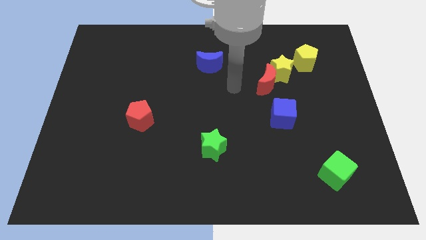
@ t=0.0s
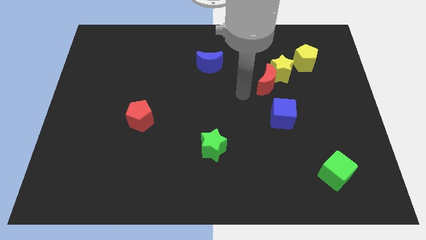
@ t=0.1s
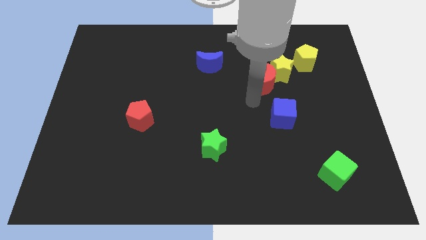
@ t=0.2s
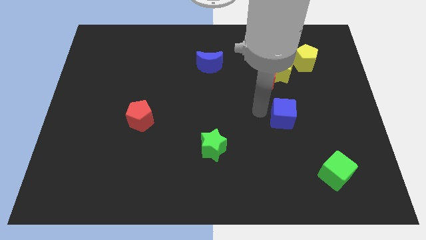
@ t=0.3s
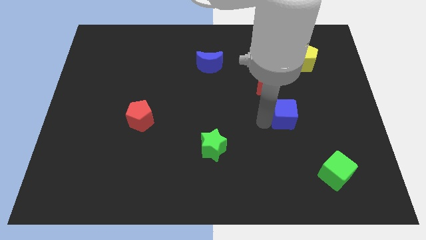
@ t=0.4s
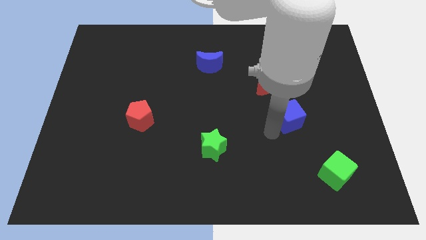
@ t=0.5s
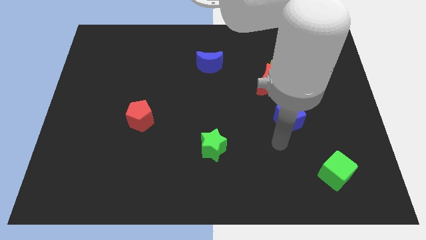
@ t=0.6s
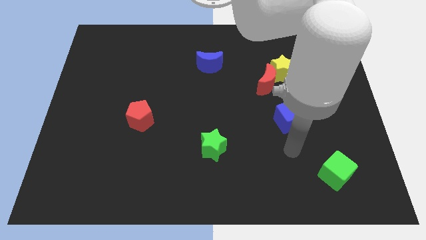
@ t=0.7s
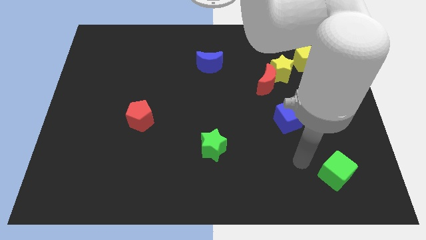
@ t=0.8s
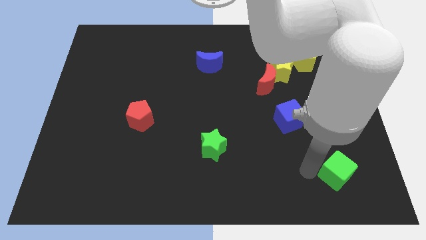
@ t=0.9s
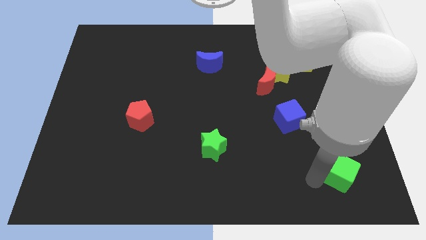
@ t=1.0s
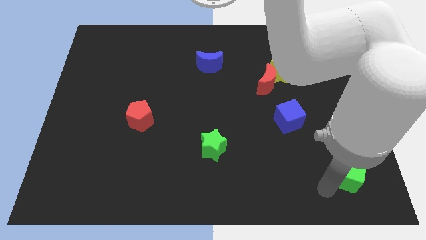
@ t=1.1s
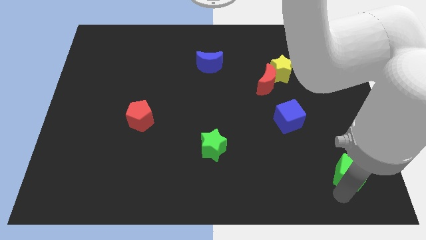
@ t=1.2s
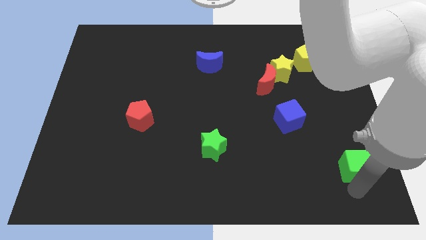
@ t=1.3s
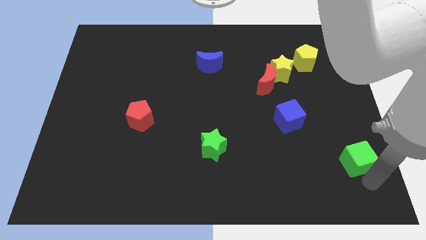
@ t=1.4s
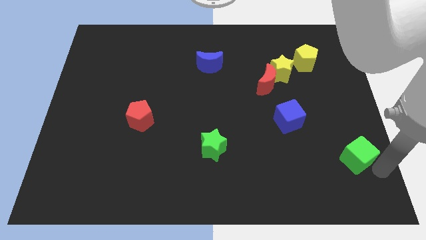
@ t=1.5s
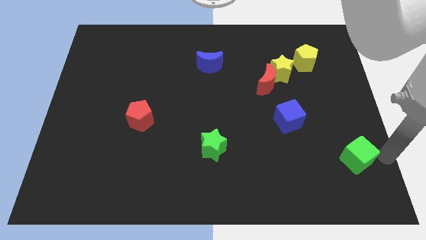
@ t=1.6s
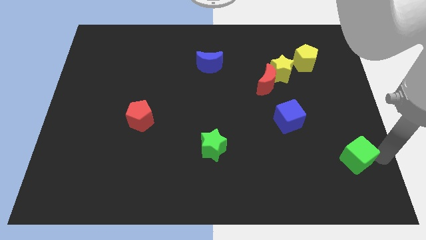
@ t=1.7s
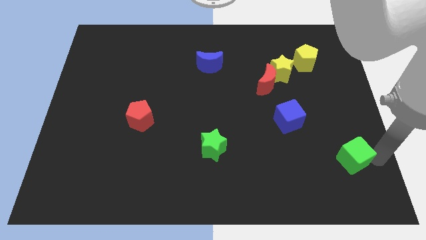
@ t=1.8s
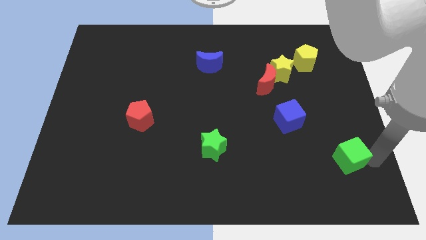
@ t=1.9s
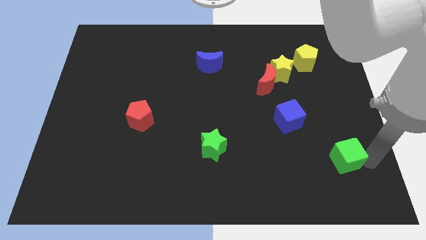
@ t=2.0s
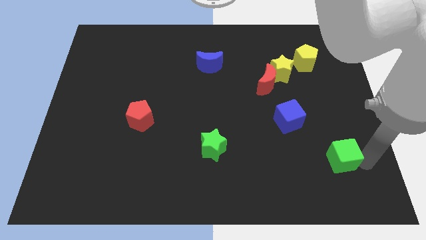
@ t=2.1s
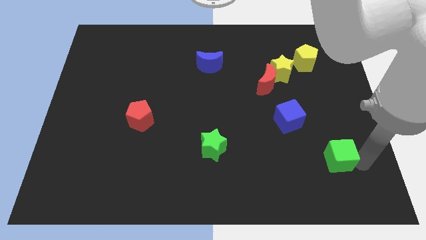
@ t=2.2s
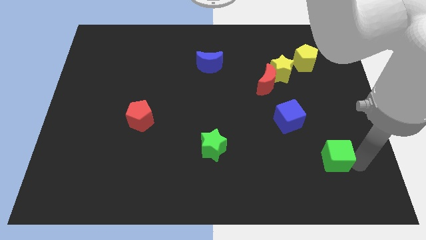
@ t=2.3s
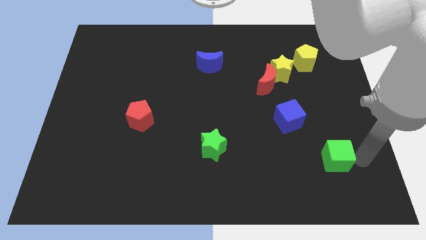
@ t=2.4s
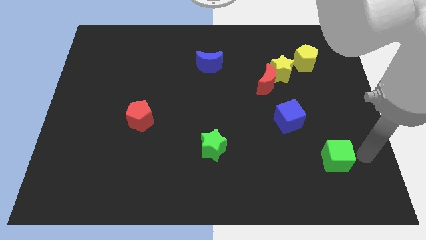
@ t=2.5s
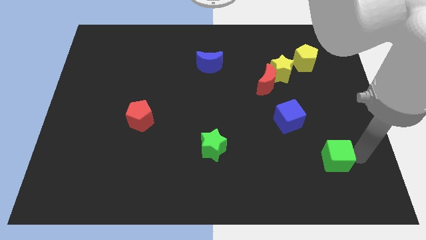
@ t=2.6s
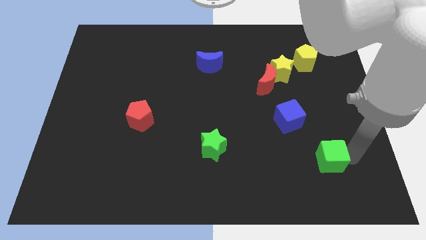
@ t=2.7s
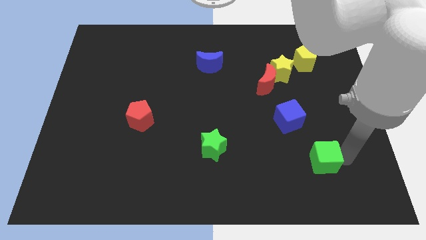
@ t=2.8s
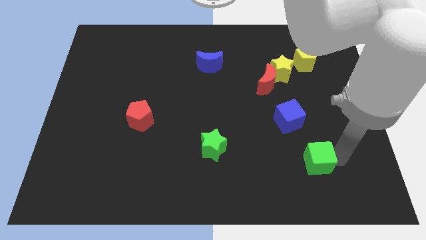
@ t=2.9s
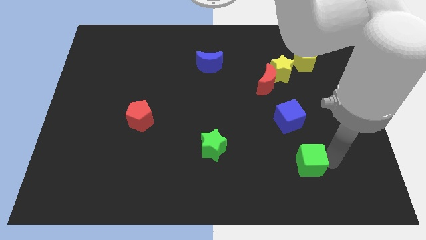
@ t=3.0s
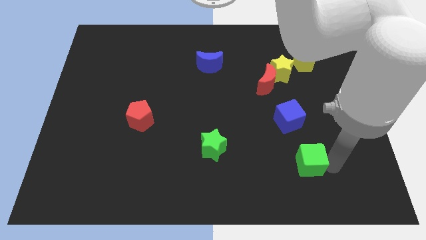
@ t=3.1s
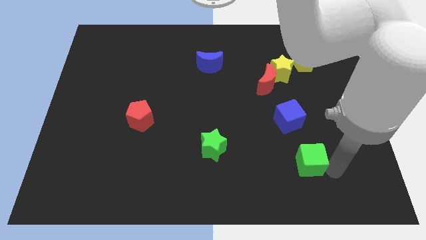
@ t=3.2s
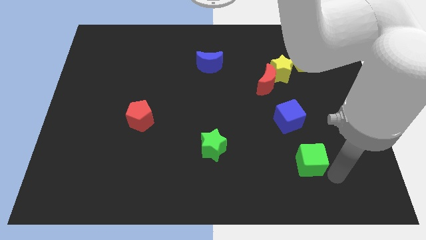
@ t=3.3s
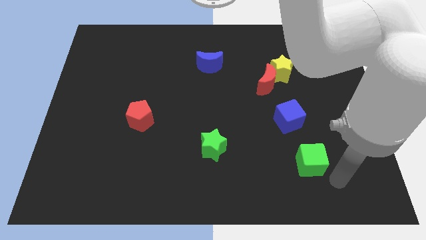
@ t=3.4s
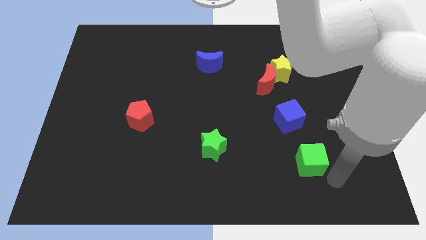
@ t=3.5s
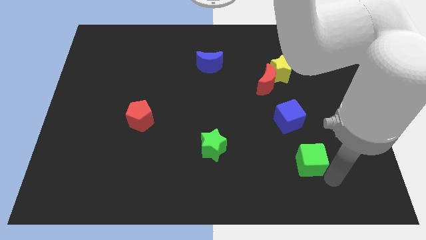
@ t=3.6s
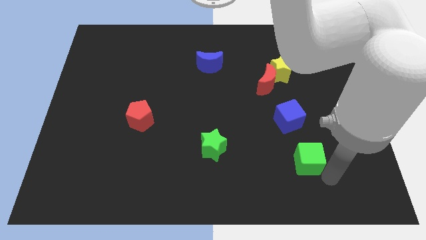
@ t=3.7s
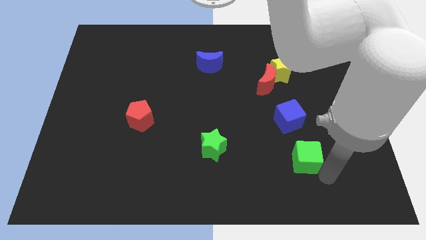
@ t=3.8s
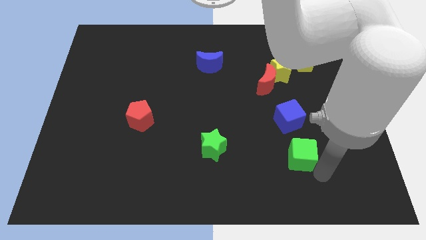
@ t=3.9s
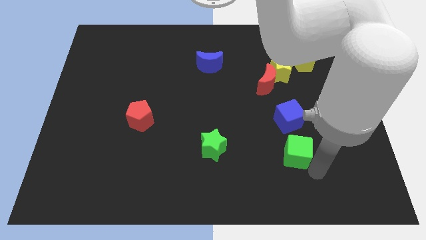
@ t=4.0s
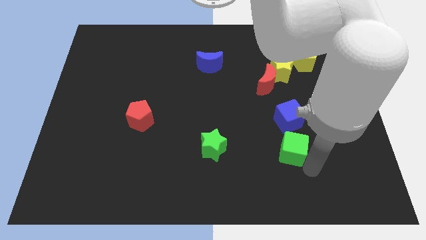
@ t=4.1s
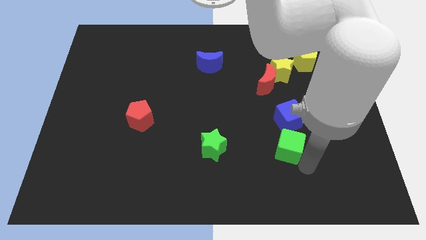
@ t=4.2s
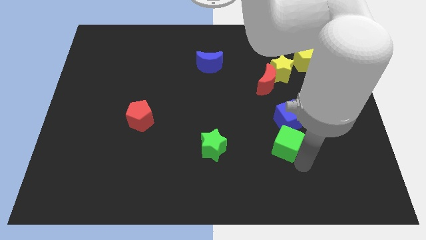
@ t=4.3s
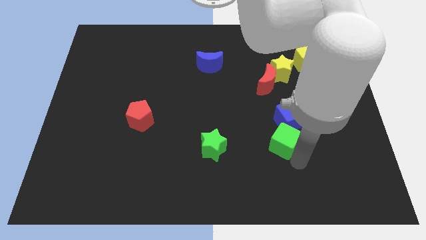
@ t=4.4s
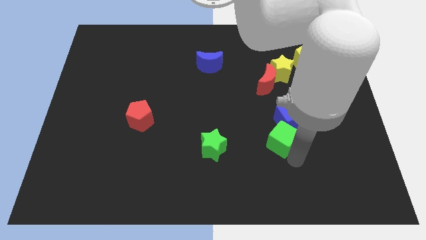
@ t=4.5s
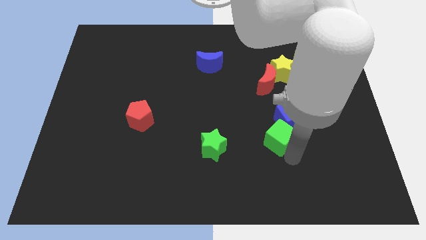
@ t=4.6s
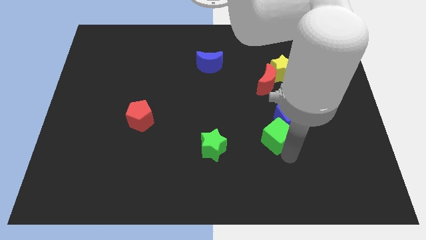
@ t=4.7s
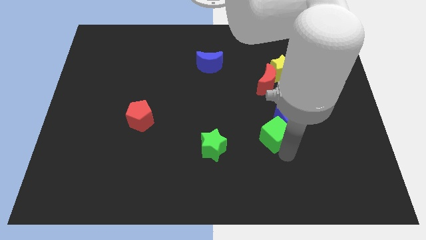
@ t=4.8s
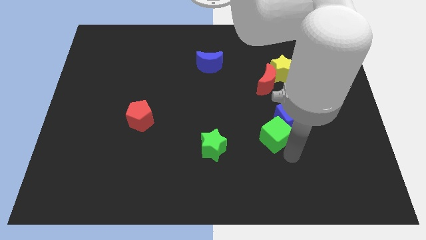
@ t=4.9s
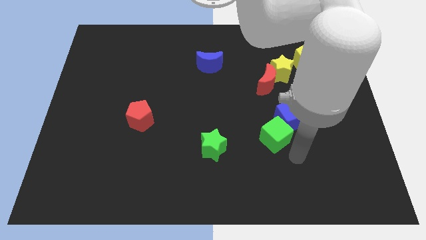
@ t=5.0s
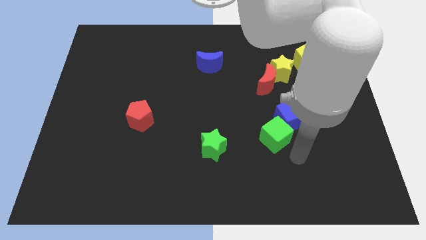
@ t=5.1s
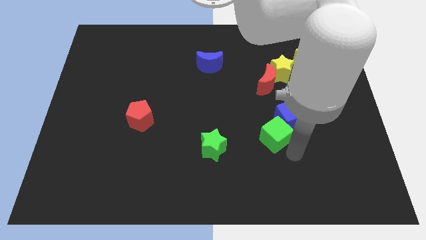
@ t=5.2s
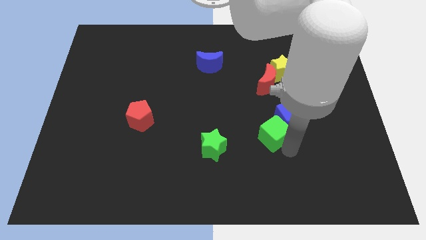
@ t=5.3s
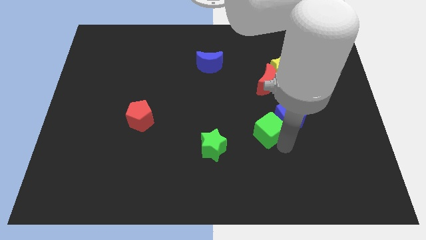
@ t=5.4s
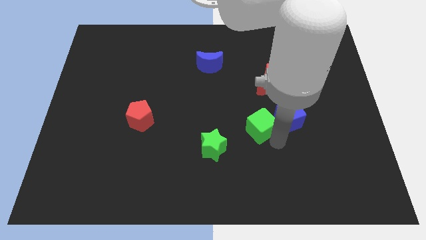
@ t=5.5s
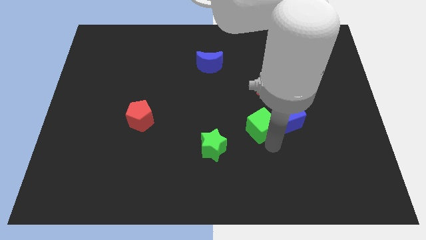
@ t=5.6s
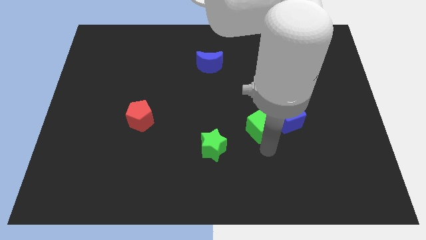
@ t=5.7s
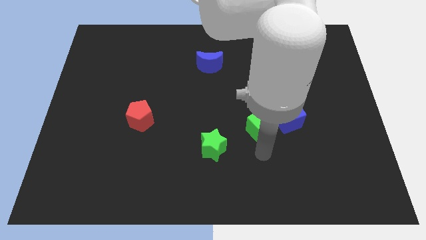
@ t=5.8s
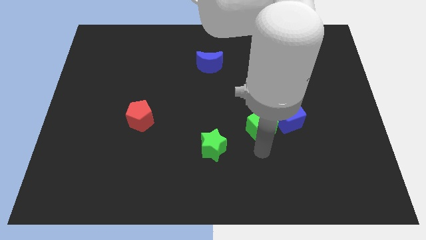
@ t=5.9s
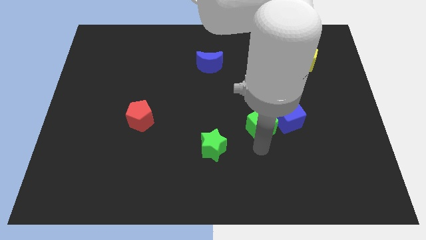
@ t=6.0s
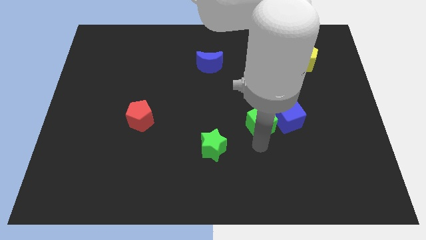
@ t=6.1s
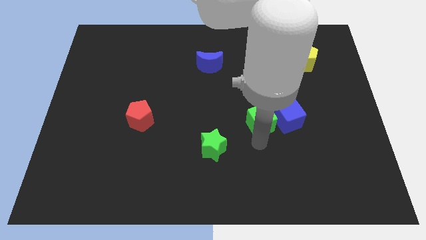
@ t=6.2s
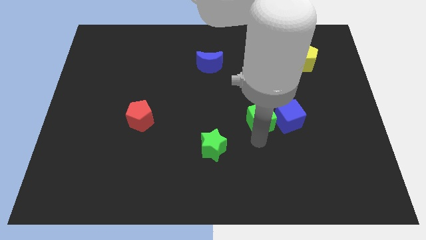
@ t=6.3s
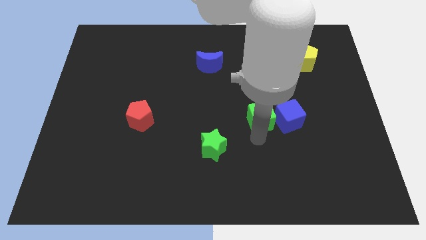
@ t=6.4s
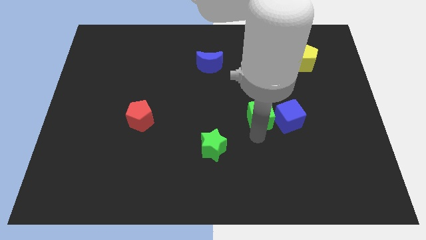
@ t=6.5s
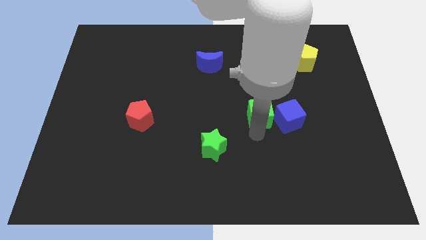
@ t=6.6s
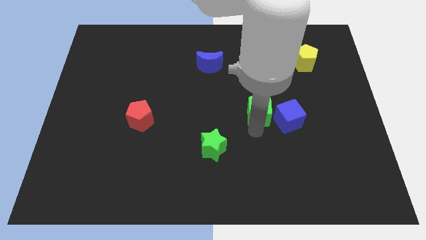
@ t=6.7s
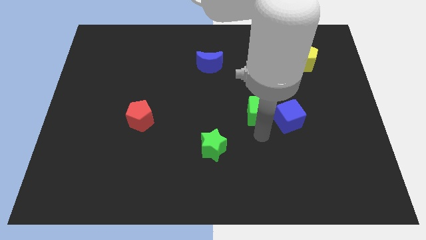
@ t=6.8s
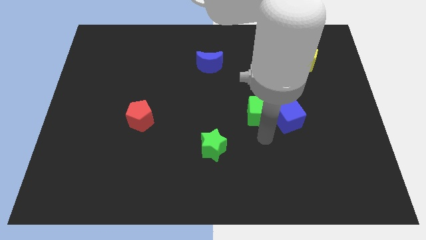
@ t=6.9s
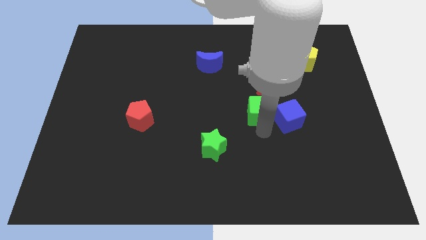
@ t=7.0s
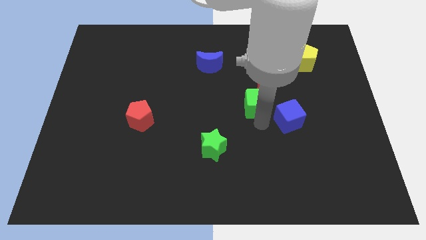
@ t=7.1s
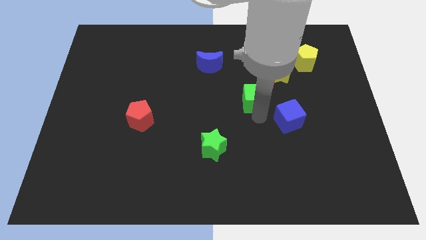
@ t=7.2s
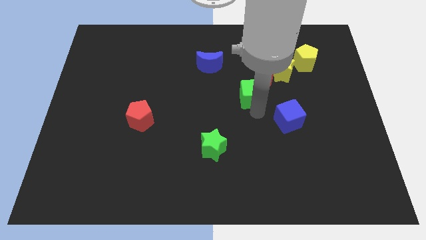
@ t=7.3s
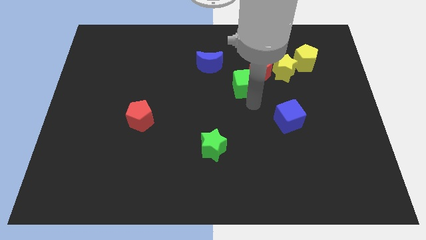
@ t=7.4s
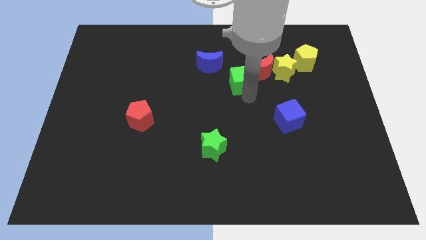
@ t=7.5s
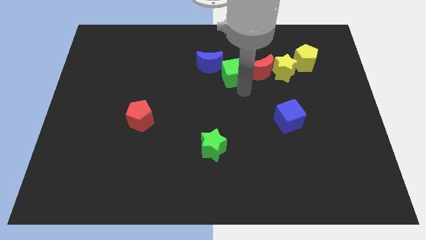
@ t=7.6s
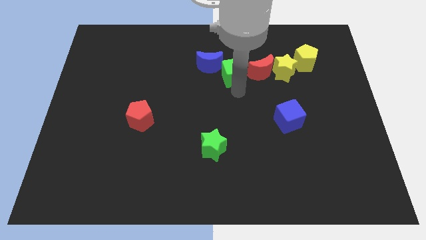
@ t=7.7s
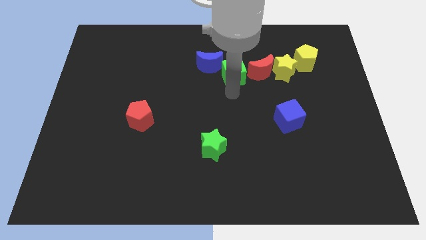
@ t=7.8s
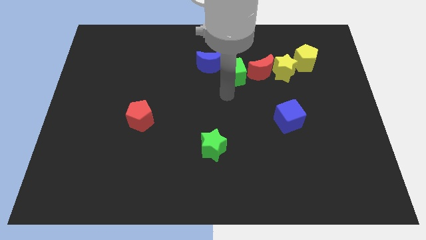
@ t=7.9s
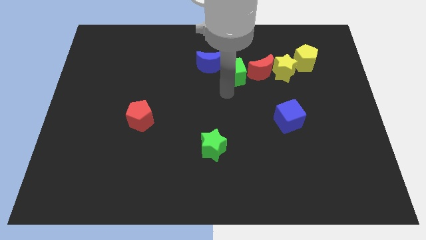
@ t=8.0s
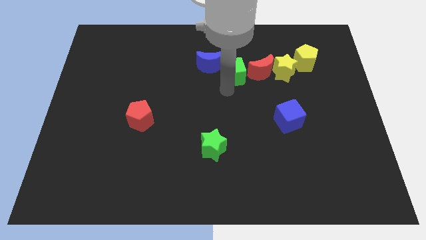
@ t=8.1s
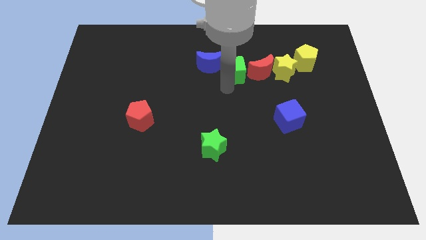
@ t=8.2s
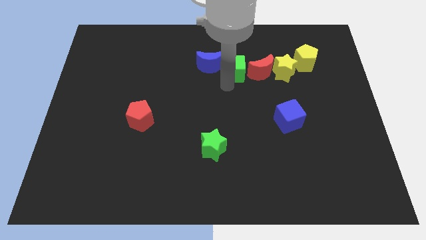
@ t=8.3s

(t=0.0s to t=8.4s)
move the green cube diagonally up and to the left of the red moon
